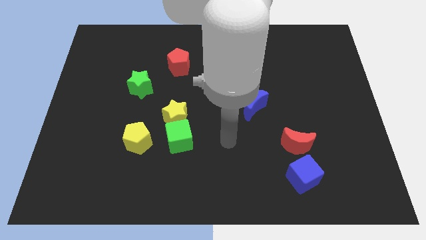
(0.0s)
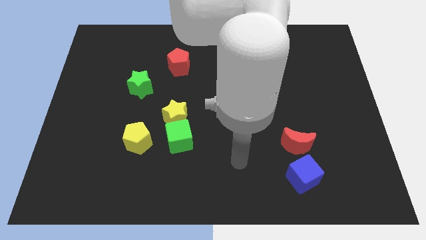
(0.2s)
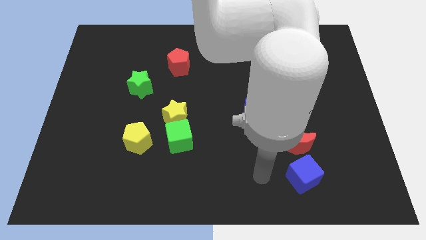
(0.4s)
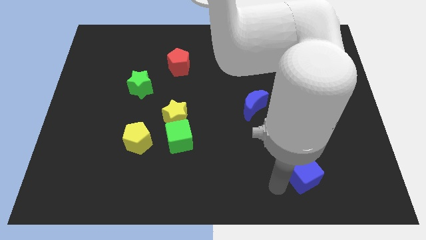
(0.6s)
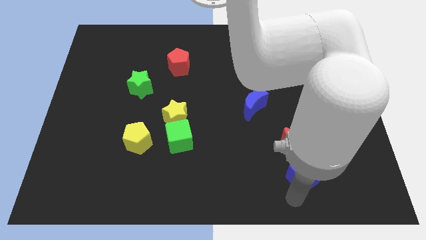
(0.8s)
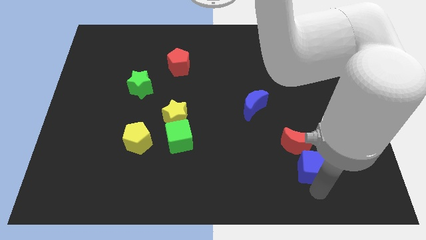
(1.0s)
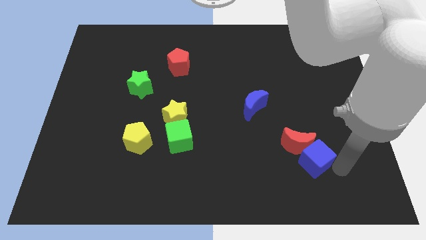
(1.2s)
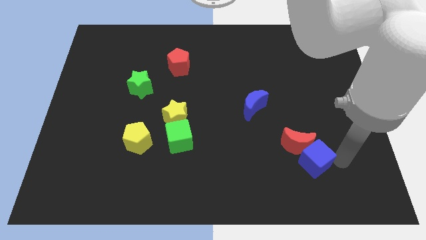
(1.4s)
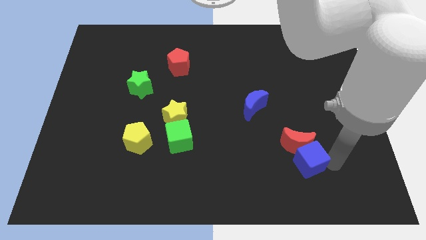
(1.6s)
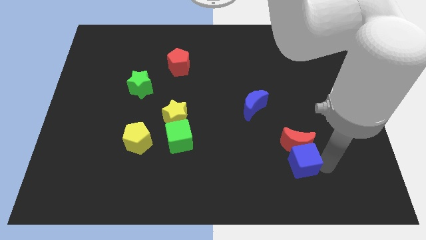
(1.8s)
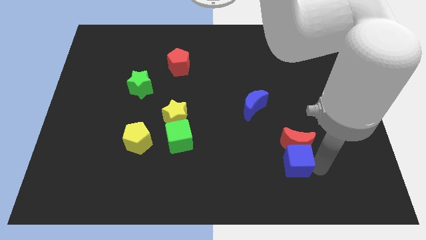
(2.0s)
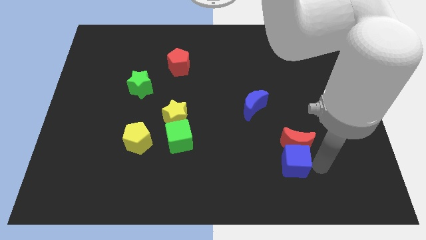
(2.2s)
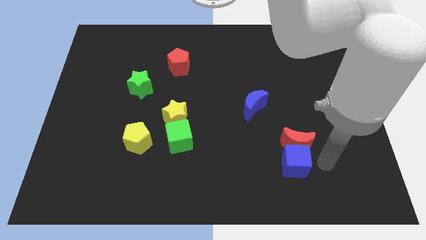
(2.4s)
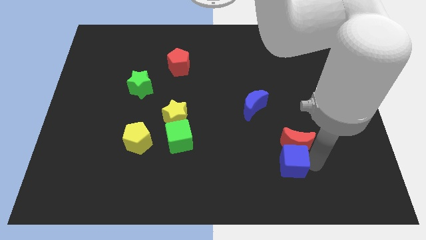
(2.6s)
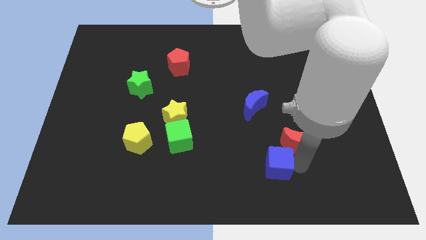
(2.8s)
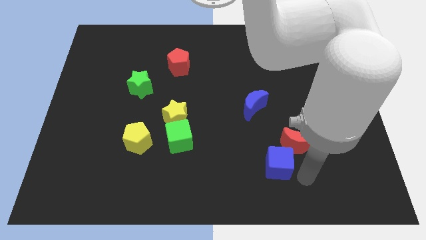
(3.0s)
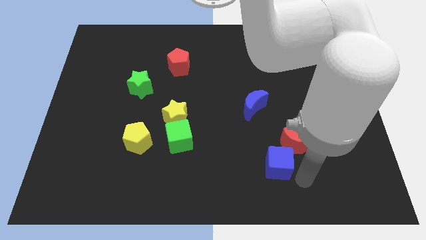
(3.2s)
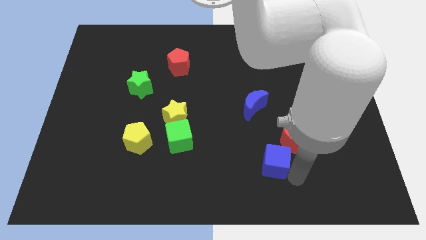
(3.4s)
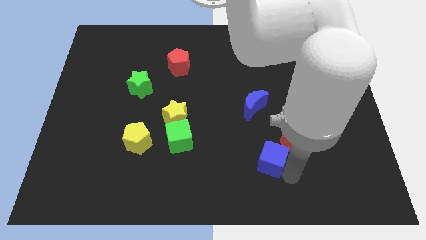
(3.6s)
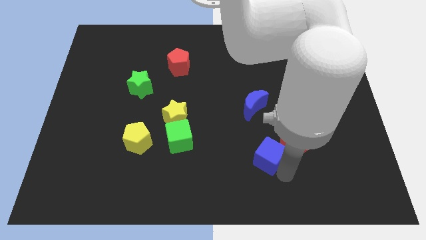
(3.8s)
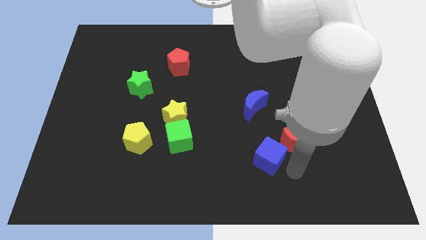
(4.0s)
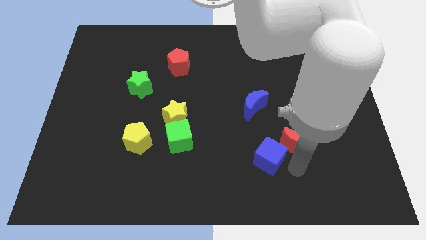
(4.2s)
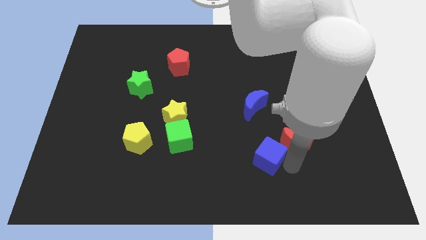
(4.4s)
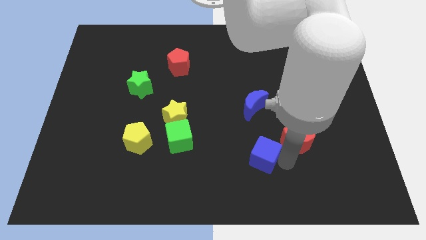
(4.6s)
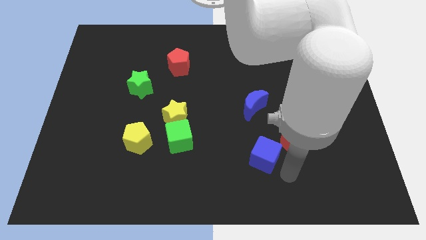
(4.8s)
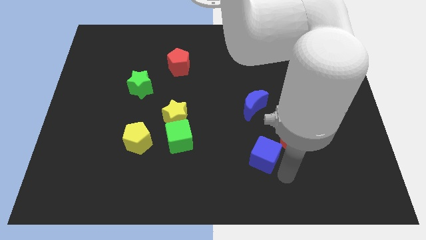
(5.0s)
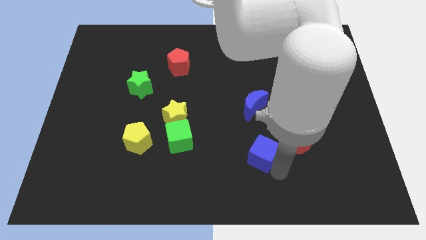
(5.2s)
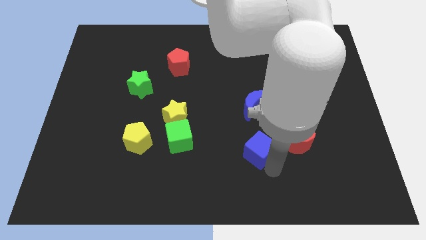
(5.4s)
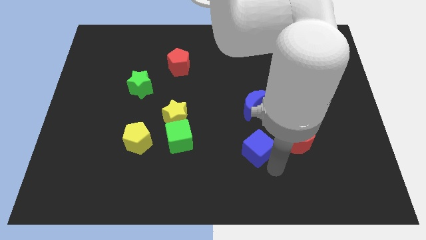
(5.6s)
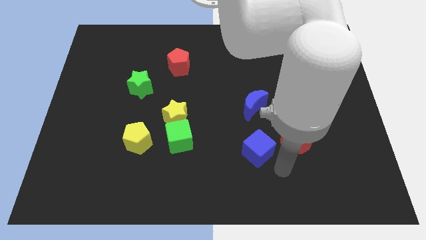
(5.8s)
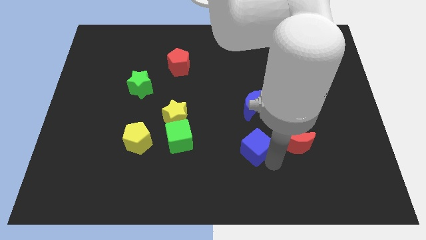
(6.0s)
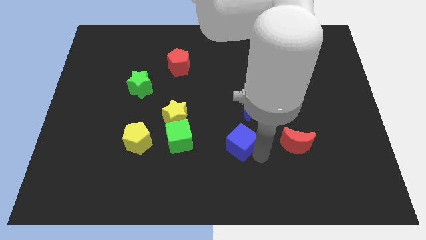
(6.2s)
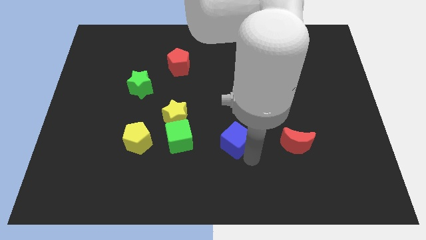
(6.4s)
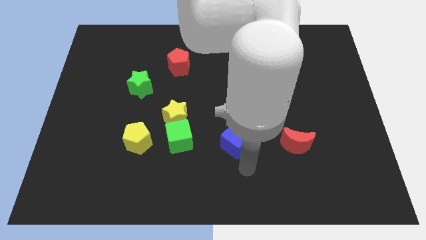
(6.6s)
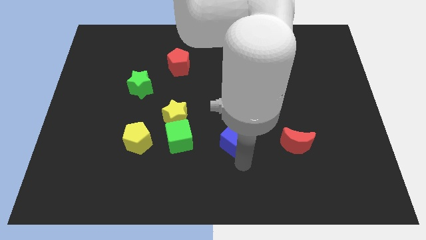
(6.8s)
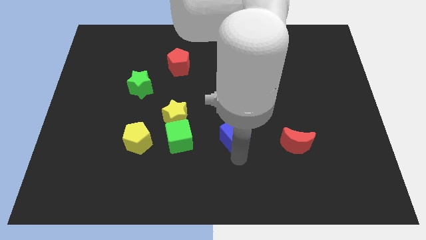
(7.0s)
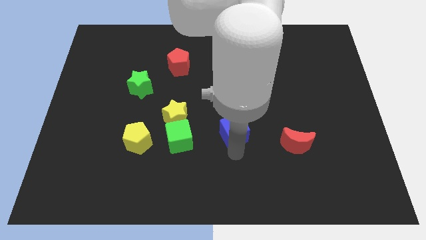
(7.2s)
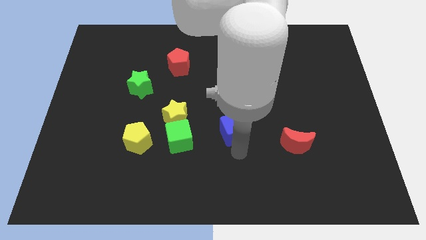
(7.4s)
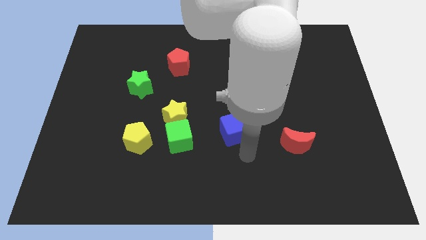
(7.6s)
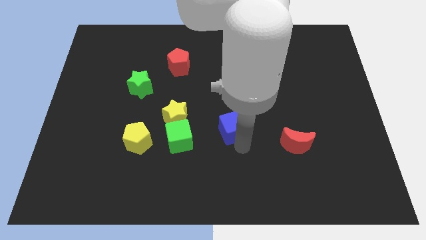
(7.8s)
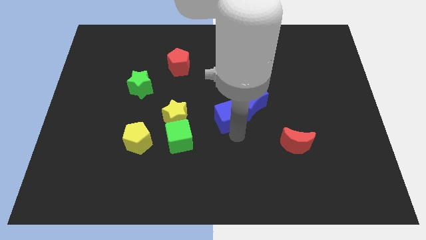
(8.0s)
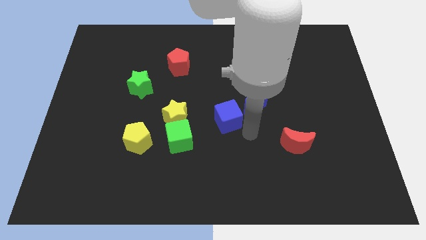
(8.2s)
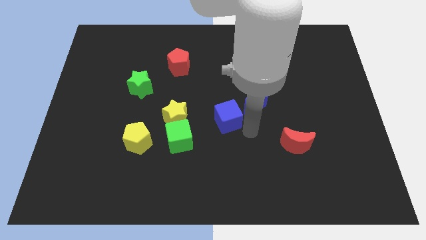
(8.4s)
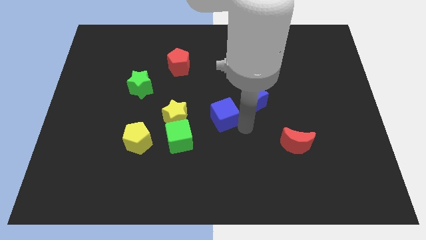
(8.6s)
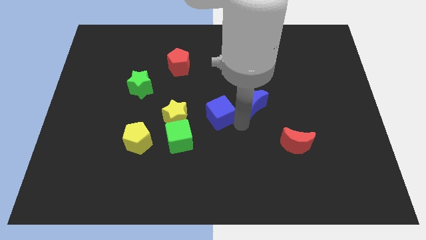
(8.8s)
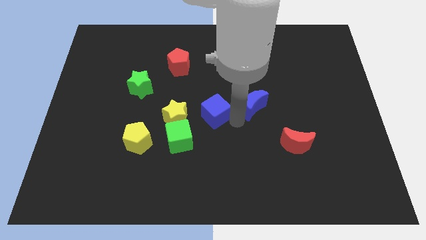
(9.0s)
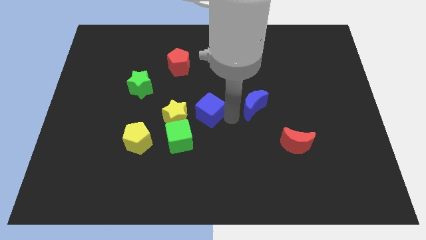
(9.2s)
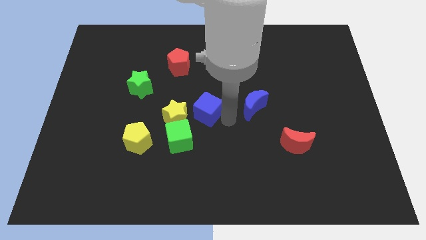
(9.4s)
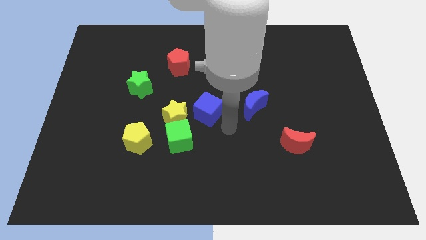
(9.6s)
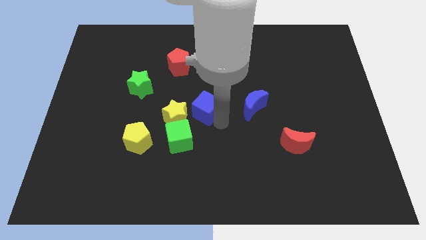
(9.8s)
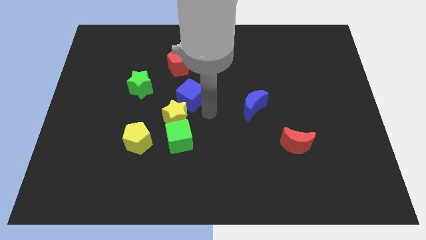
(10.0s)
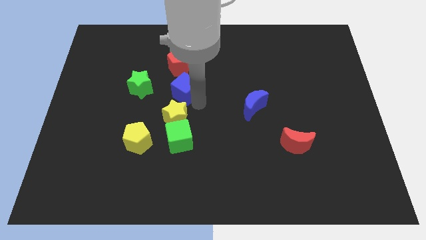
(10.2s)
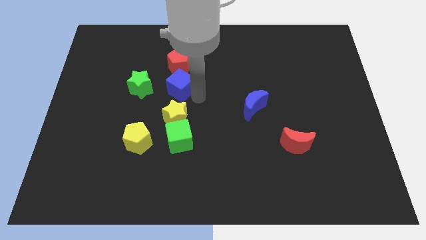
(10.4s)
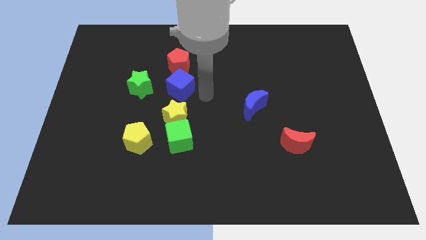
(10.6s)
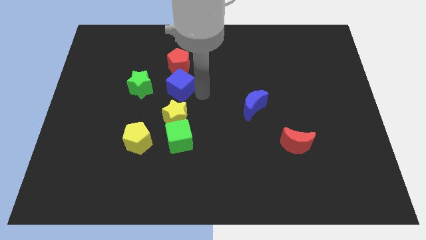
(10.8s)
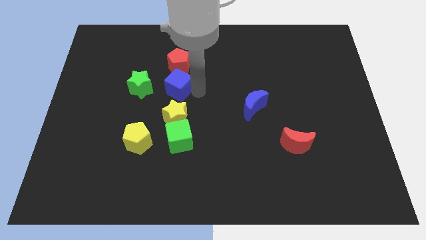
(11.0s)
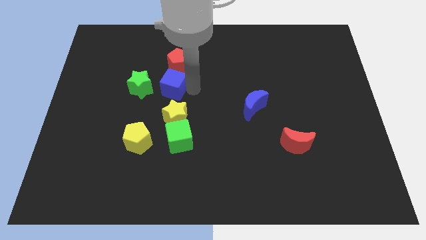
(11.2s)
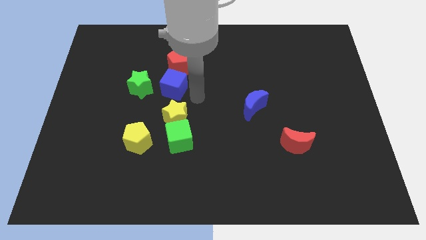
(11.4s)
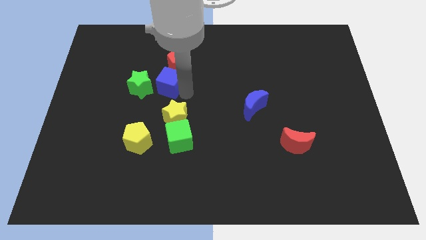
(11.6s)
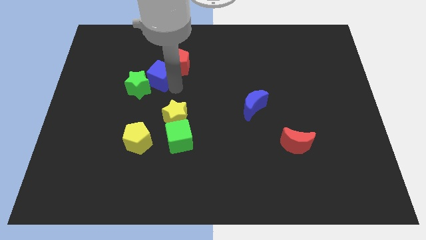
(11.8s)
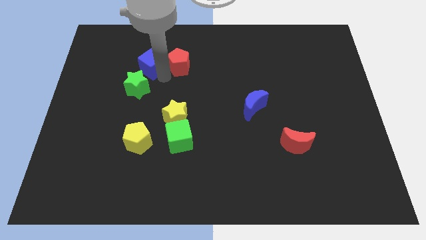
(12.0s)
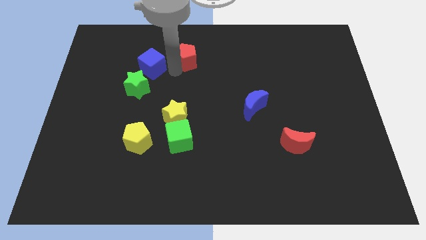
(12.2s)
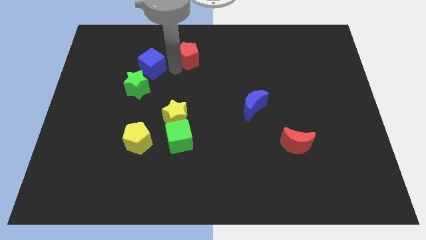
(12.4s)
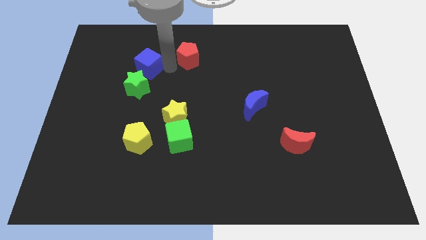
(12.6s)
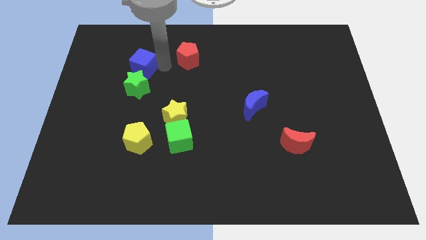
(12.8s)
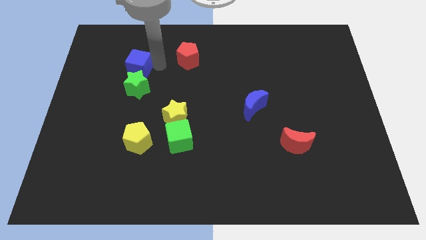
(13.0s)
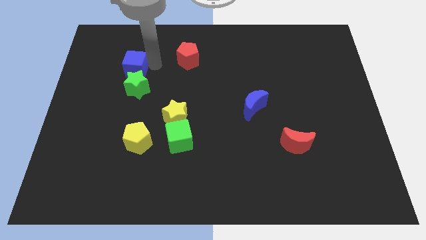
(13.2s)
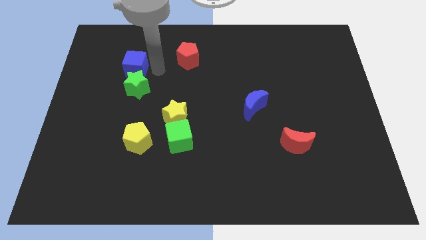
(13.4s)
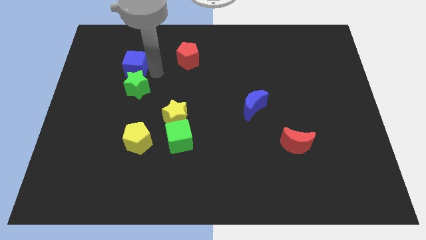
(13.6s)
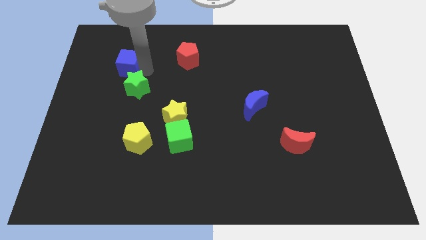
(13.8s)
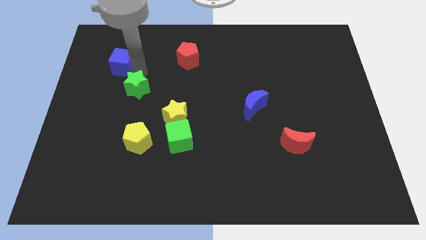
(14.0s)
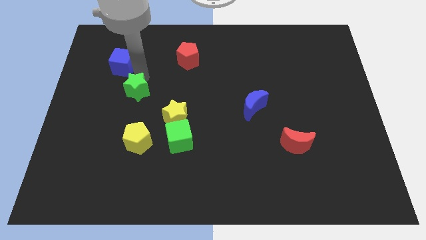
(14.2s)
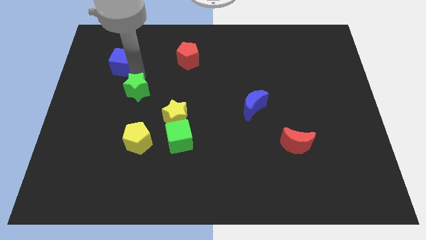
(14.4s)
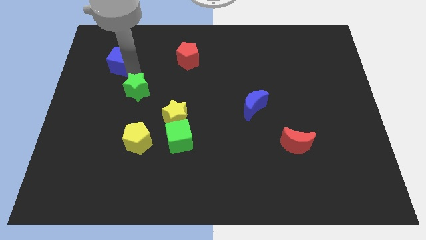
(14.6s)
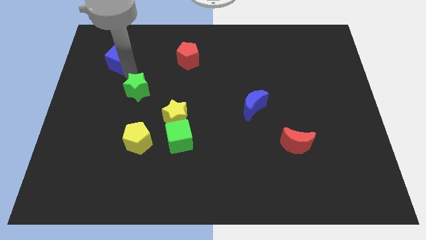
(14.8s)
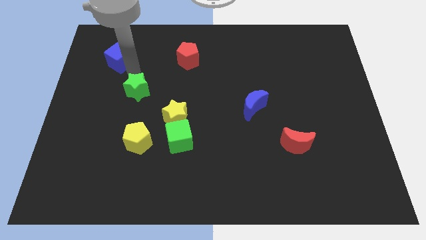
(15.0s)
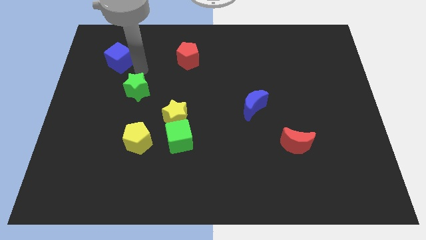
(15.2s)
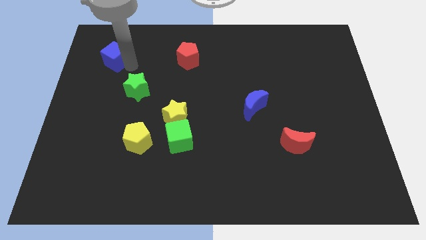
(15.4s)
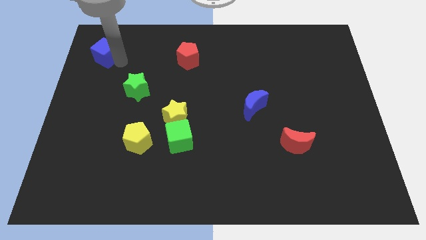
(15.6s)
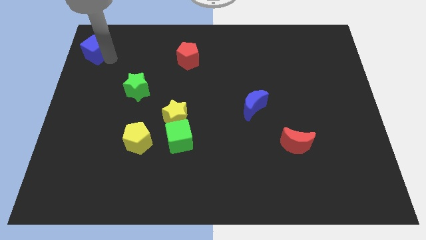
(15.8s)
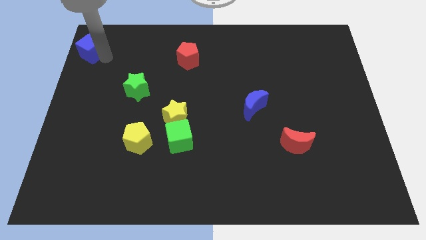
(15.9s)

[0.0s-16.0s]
slide the blue cube to the top left of the board
